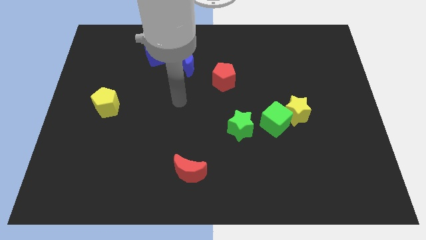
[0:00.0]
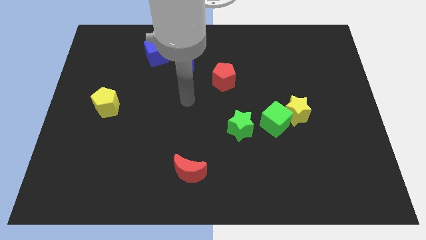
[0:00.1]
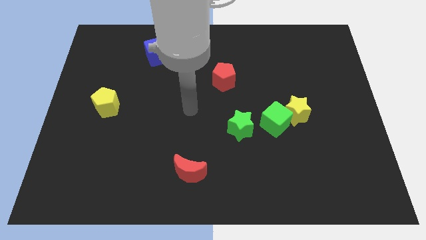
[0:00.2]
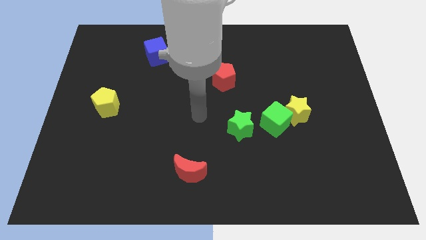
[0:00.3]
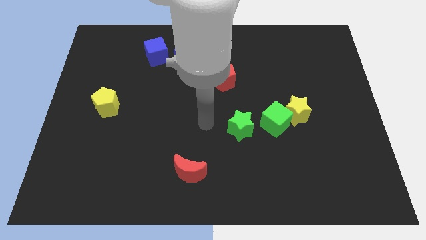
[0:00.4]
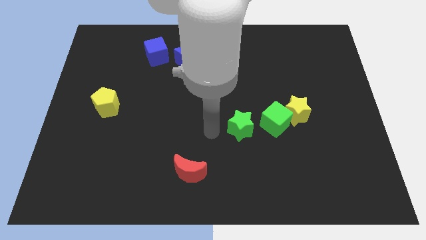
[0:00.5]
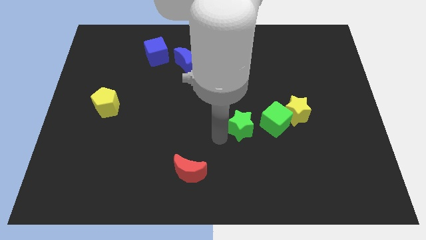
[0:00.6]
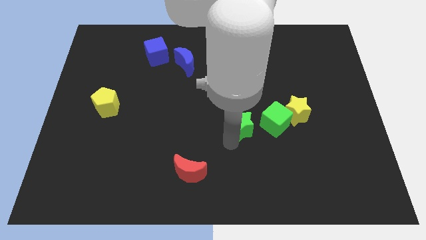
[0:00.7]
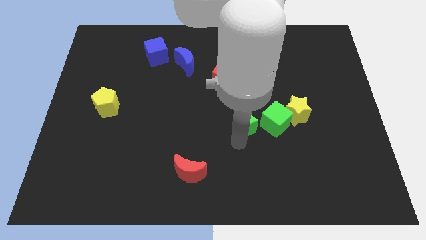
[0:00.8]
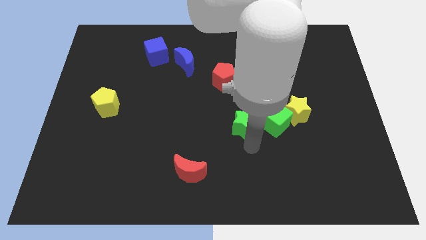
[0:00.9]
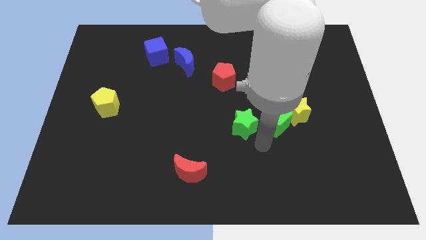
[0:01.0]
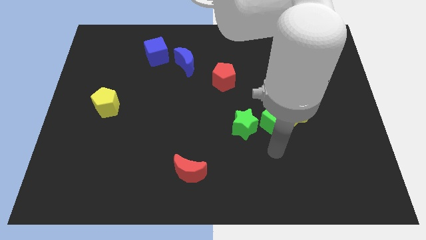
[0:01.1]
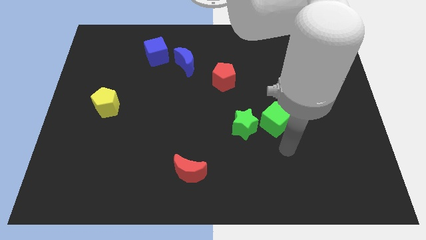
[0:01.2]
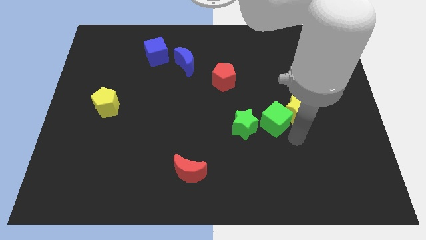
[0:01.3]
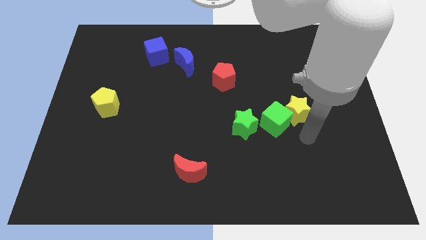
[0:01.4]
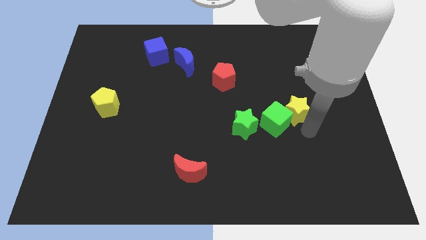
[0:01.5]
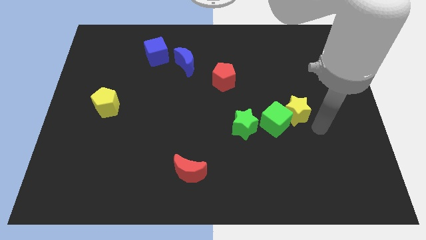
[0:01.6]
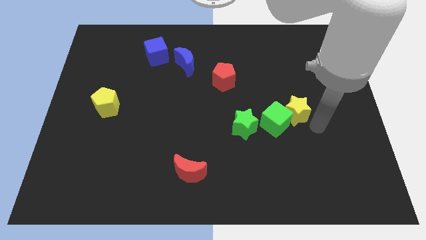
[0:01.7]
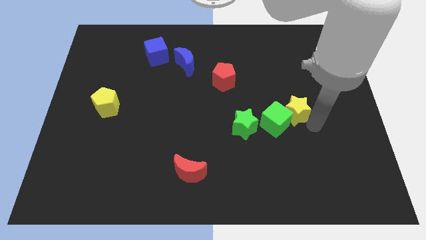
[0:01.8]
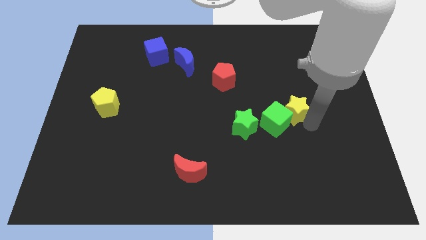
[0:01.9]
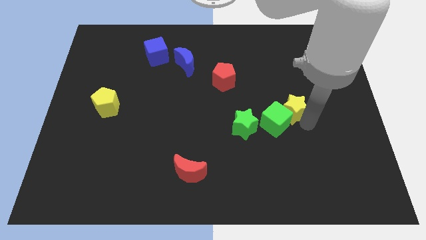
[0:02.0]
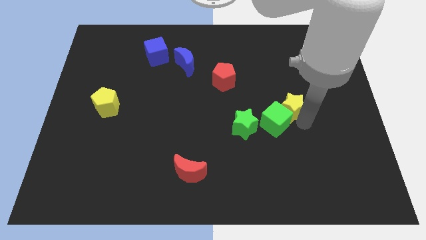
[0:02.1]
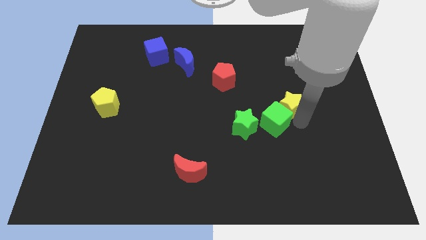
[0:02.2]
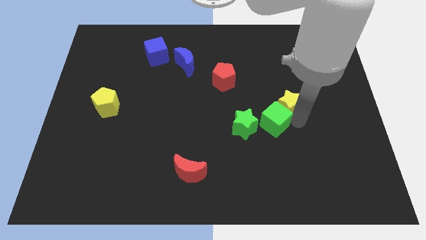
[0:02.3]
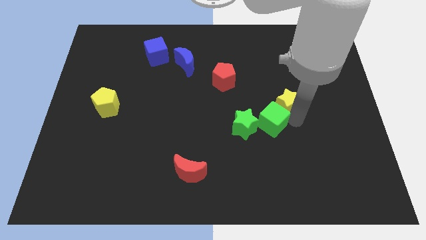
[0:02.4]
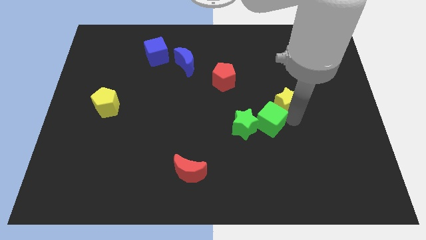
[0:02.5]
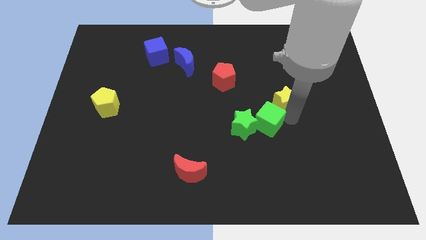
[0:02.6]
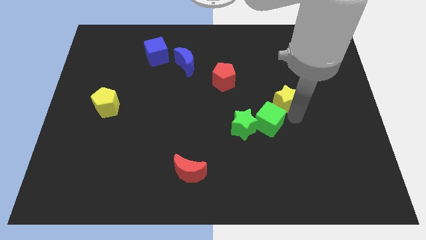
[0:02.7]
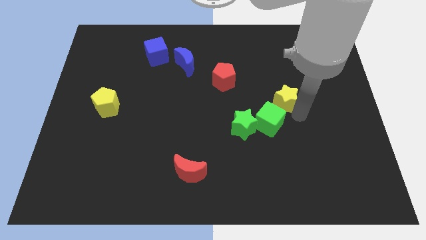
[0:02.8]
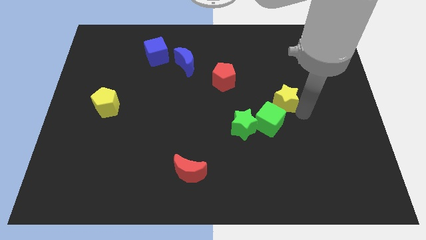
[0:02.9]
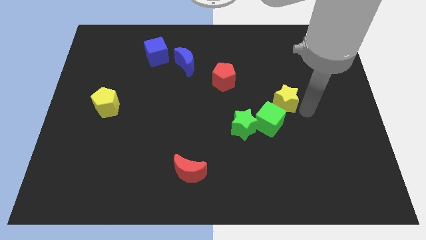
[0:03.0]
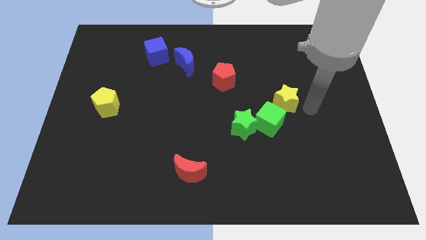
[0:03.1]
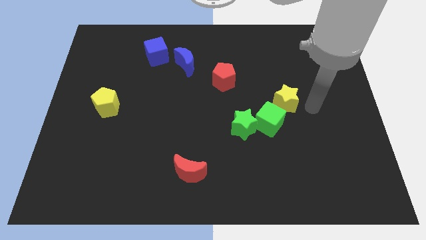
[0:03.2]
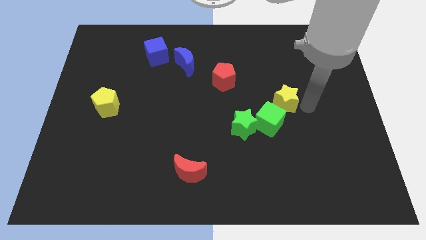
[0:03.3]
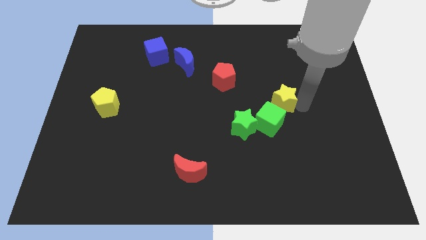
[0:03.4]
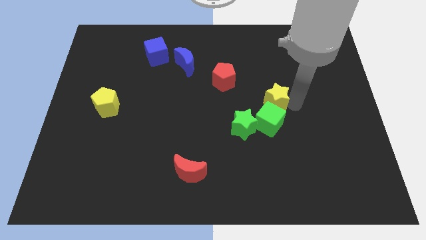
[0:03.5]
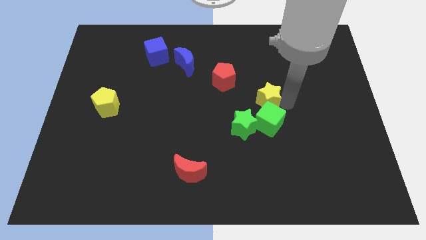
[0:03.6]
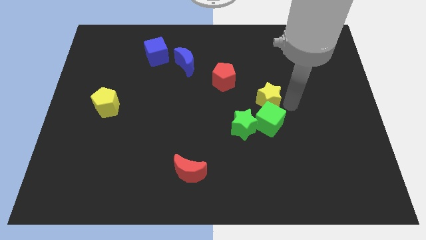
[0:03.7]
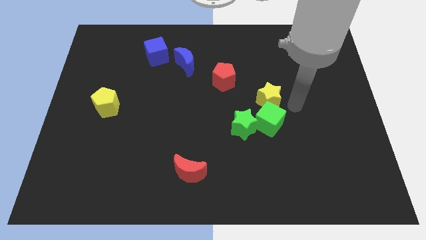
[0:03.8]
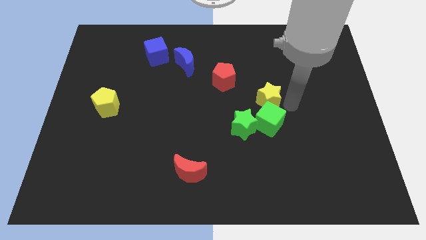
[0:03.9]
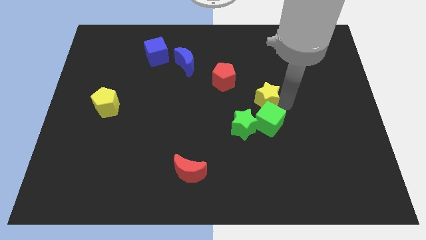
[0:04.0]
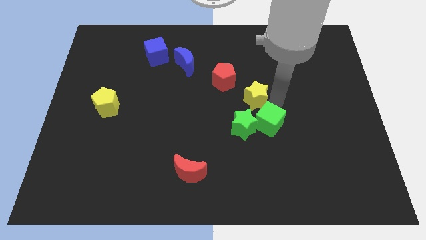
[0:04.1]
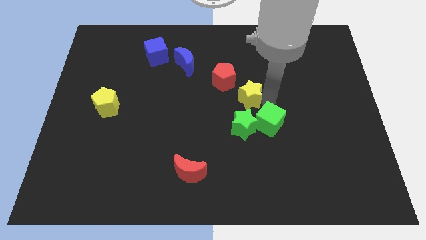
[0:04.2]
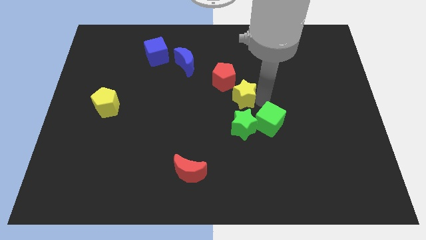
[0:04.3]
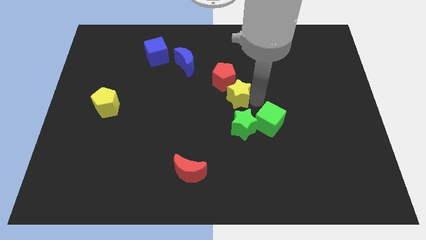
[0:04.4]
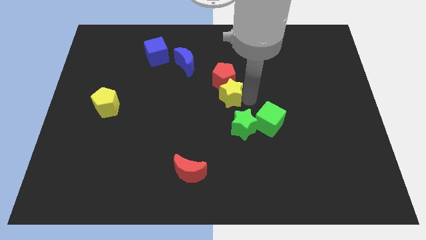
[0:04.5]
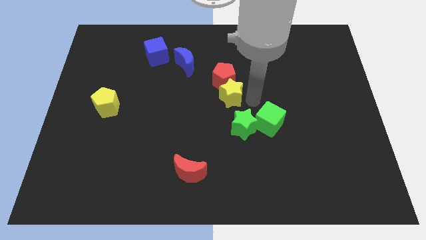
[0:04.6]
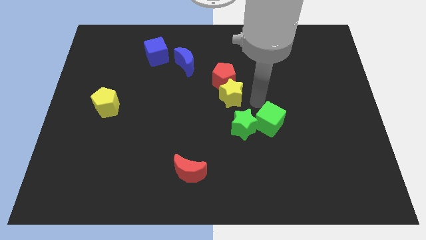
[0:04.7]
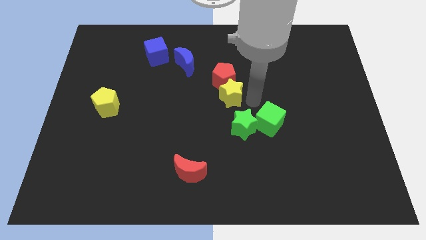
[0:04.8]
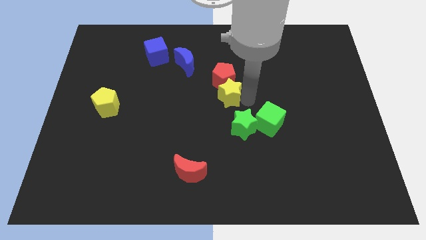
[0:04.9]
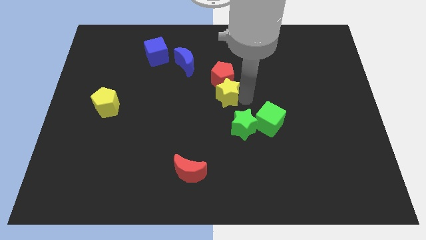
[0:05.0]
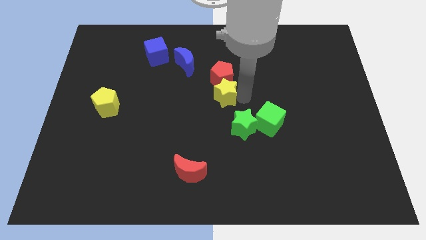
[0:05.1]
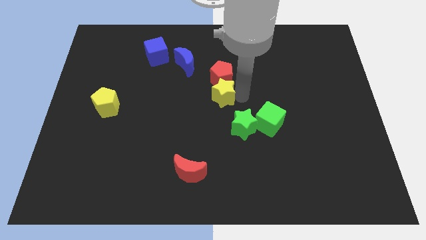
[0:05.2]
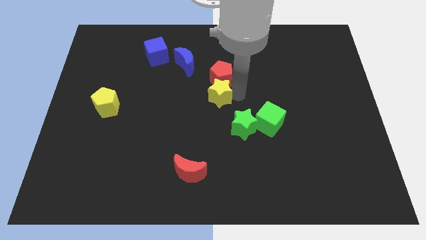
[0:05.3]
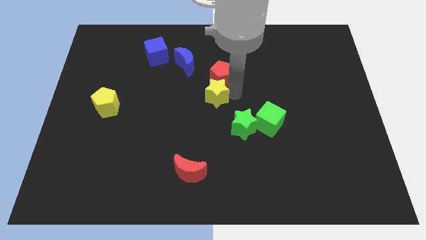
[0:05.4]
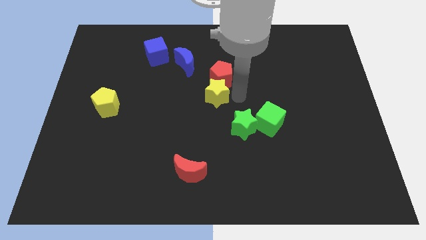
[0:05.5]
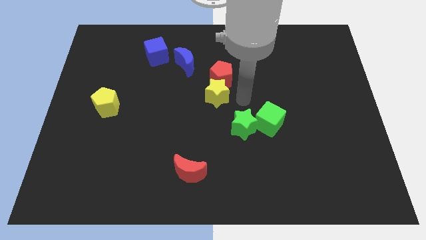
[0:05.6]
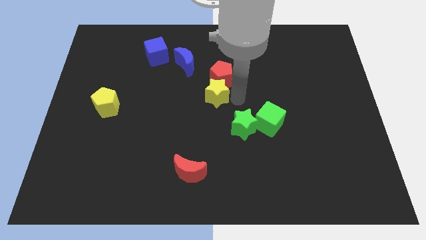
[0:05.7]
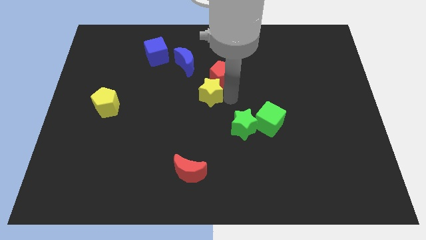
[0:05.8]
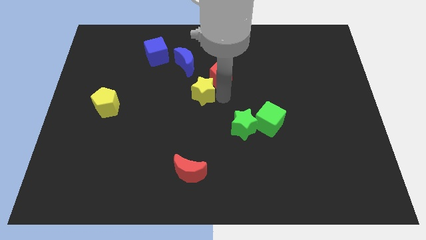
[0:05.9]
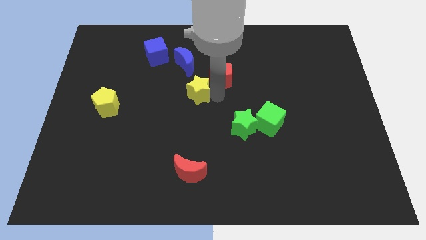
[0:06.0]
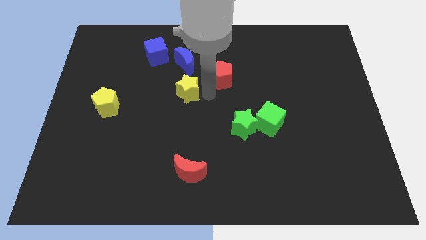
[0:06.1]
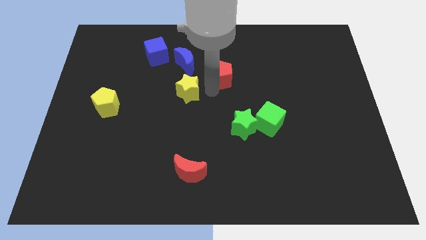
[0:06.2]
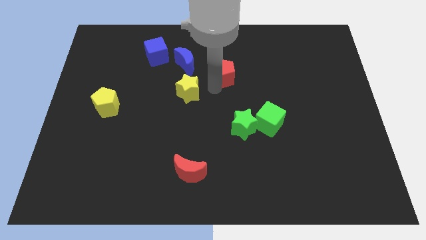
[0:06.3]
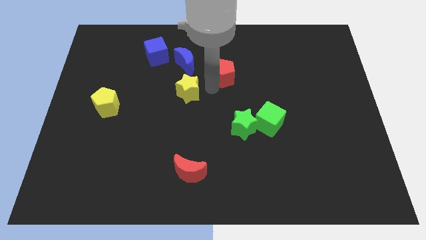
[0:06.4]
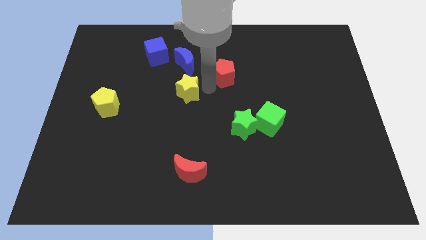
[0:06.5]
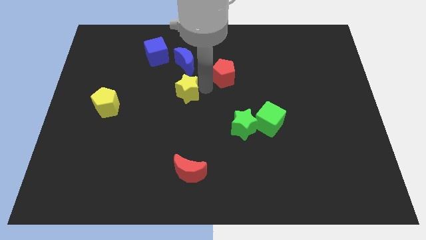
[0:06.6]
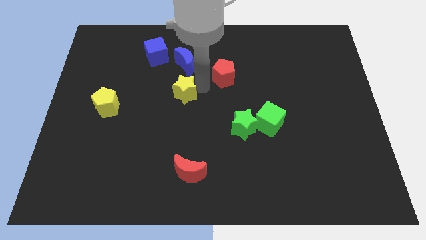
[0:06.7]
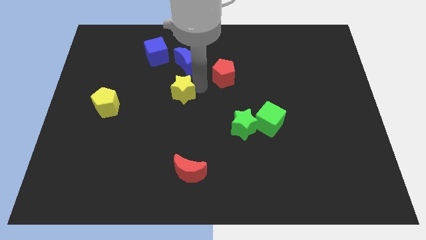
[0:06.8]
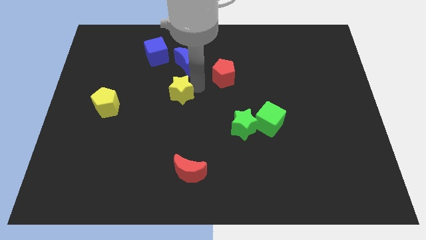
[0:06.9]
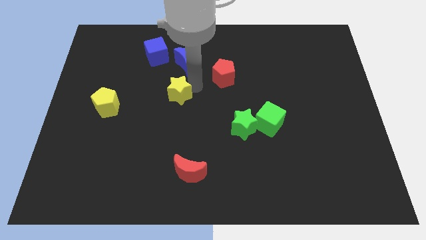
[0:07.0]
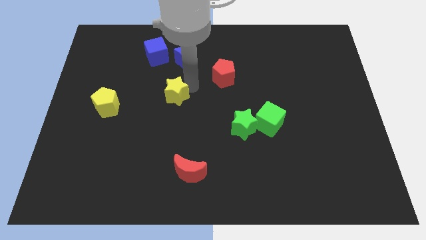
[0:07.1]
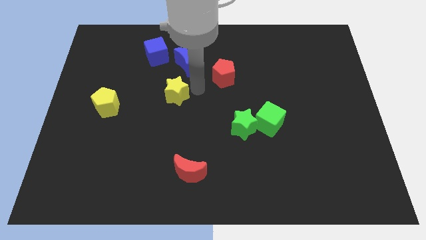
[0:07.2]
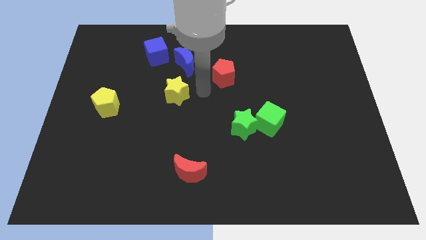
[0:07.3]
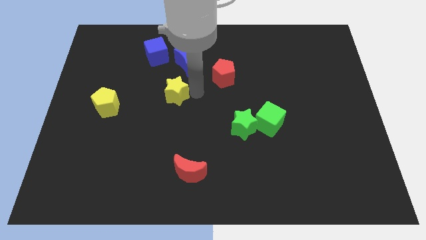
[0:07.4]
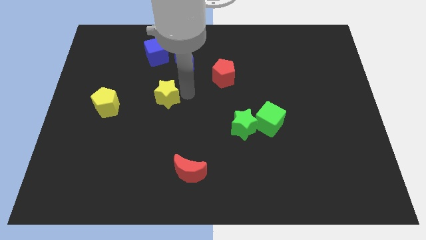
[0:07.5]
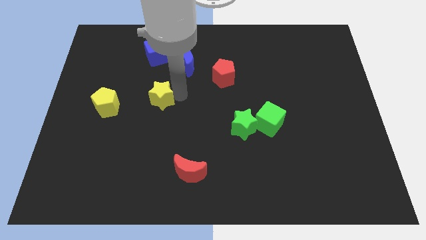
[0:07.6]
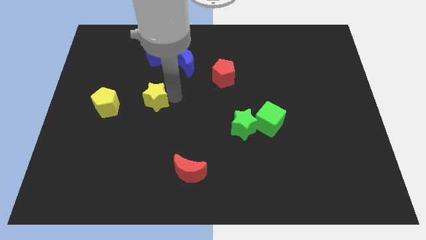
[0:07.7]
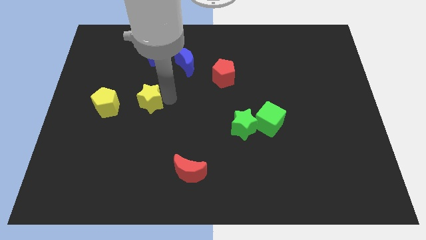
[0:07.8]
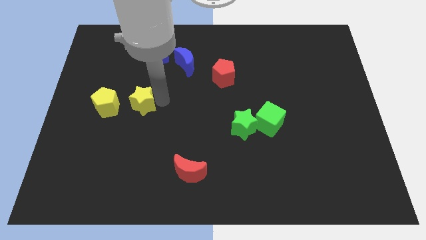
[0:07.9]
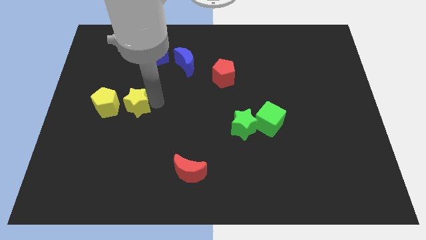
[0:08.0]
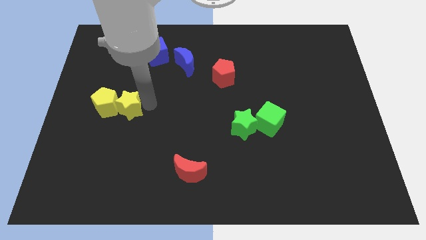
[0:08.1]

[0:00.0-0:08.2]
move the yellow star next to the yellow pentagon
